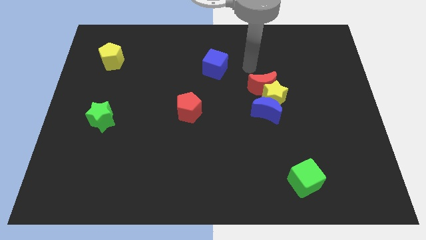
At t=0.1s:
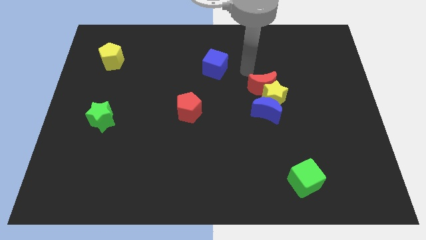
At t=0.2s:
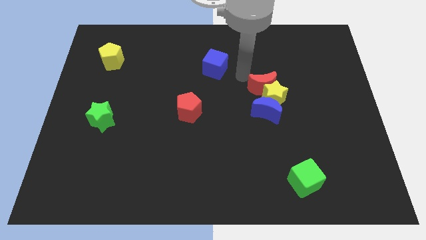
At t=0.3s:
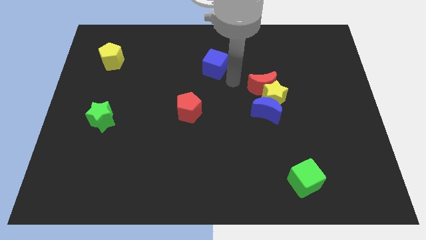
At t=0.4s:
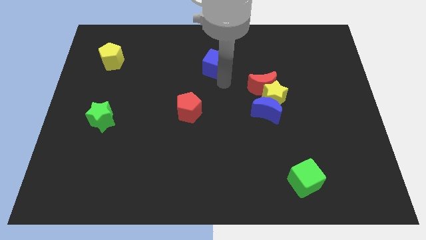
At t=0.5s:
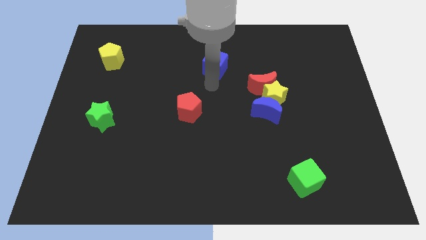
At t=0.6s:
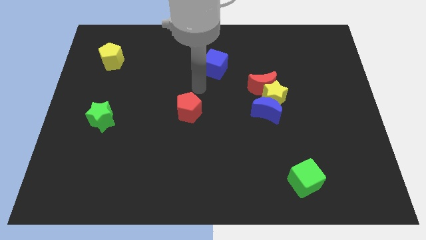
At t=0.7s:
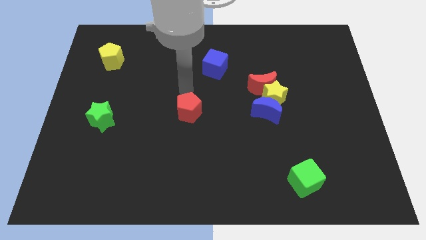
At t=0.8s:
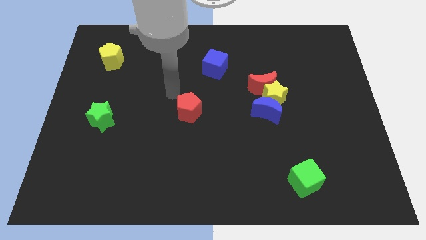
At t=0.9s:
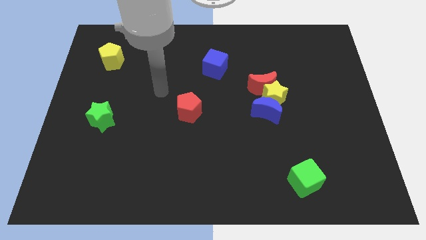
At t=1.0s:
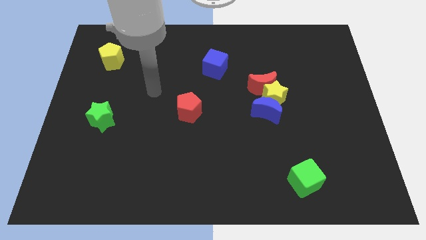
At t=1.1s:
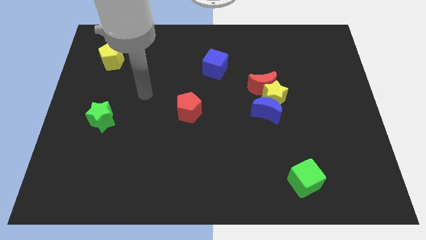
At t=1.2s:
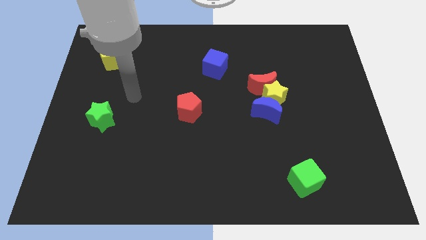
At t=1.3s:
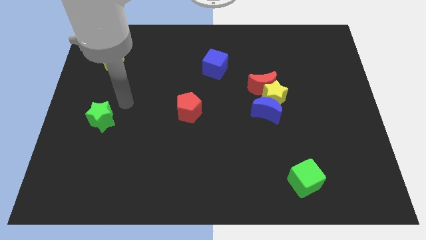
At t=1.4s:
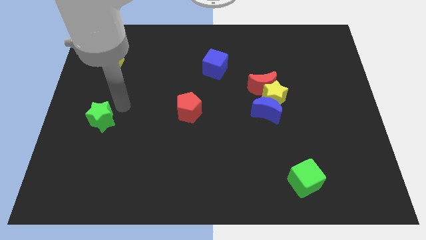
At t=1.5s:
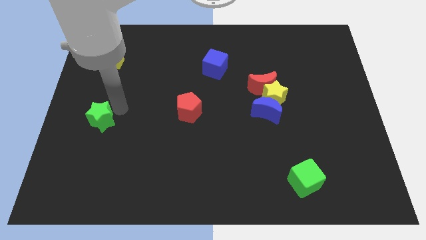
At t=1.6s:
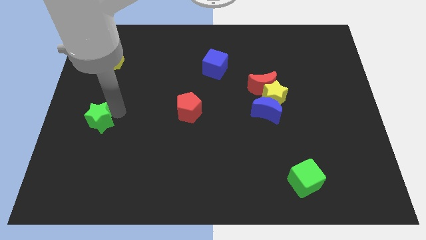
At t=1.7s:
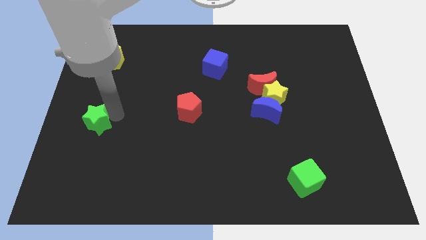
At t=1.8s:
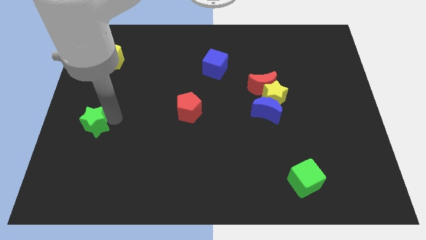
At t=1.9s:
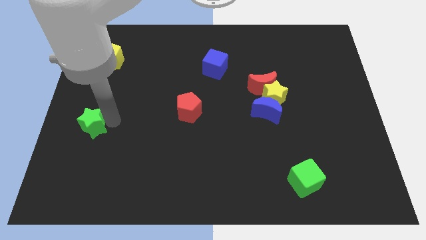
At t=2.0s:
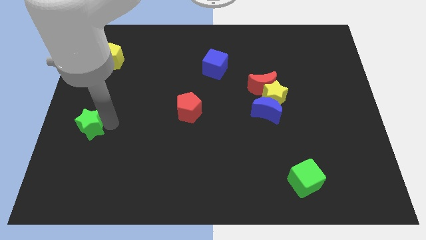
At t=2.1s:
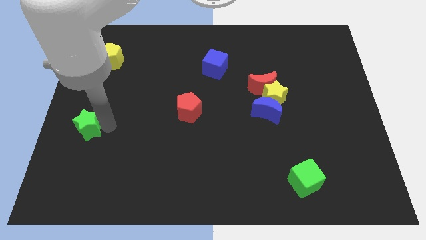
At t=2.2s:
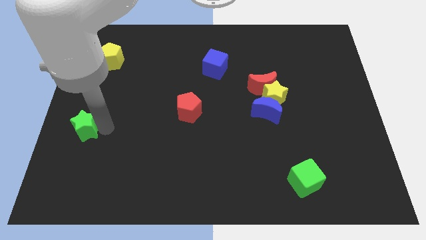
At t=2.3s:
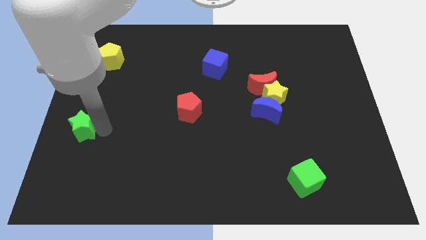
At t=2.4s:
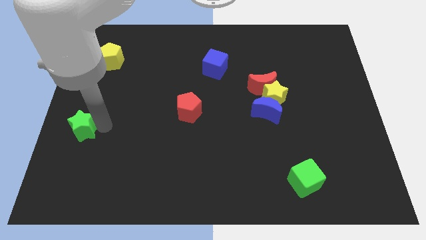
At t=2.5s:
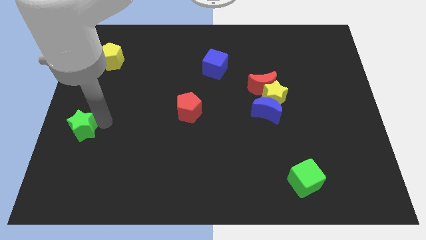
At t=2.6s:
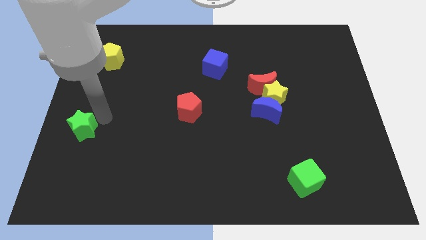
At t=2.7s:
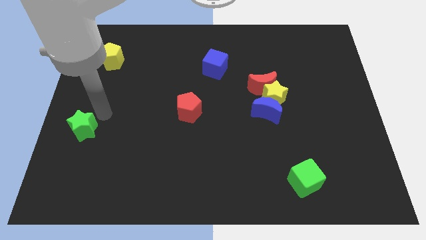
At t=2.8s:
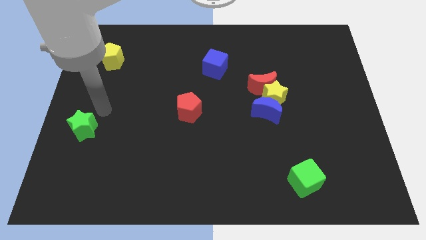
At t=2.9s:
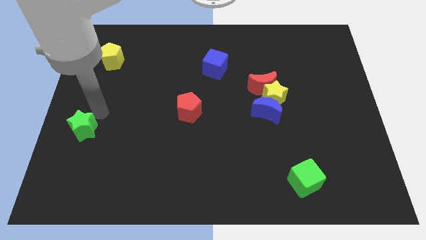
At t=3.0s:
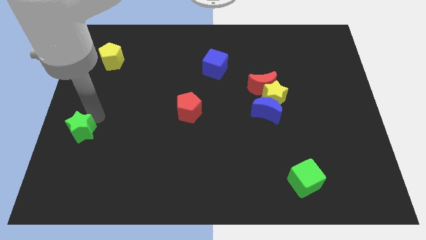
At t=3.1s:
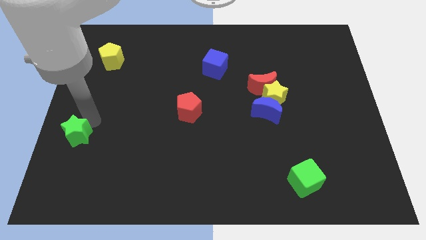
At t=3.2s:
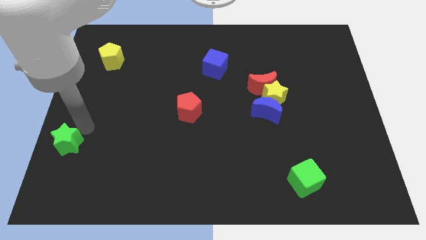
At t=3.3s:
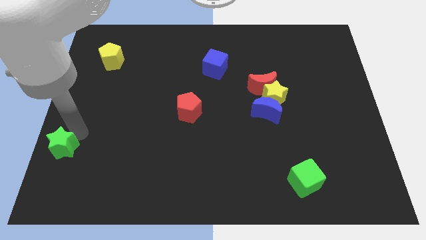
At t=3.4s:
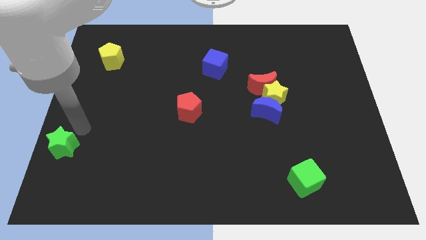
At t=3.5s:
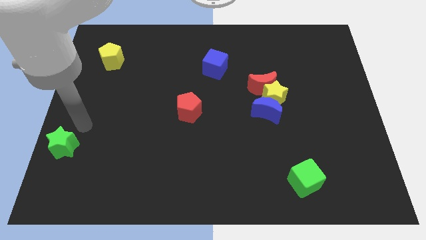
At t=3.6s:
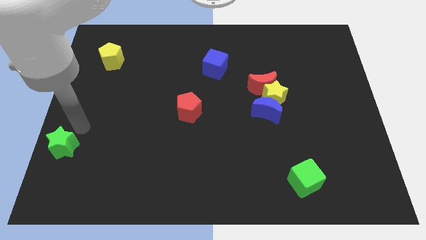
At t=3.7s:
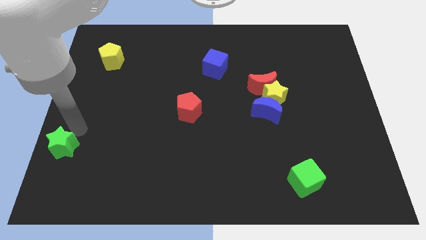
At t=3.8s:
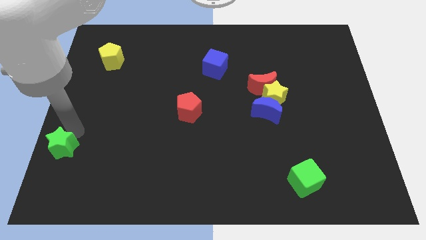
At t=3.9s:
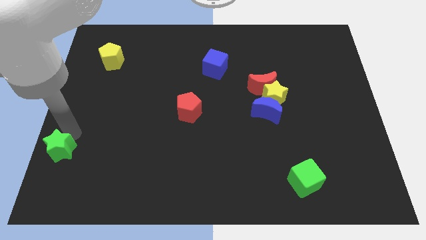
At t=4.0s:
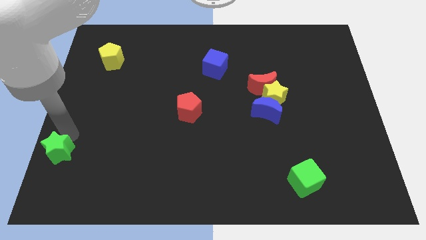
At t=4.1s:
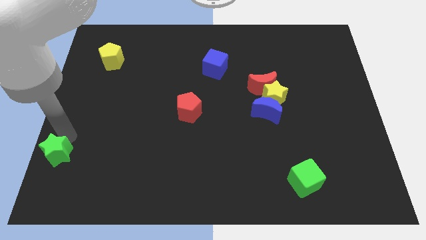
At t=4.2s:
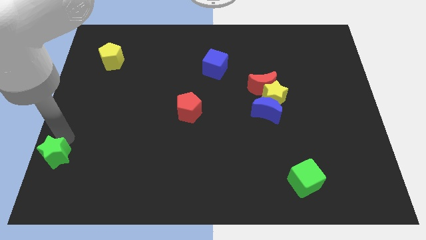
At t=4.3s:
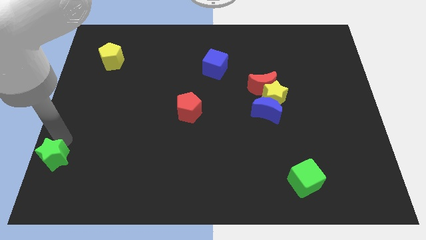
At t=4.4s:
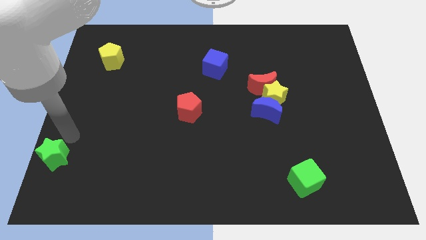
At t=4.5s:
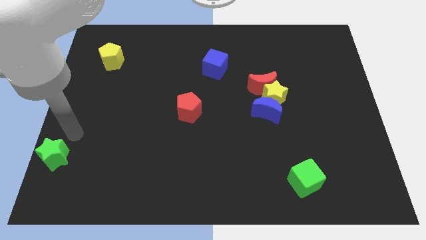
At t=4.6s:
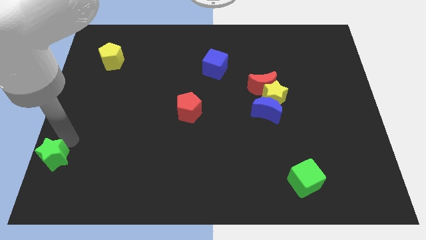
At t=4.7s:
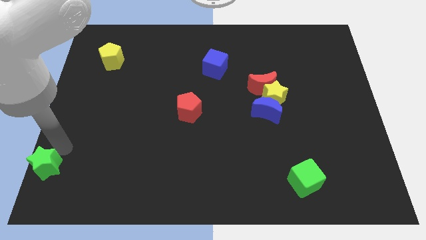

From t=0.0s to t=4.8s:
push the green star to the bottom left corner

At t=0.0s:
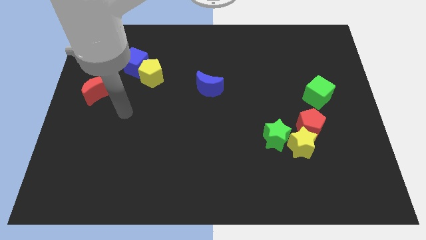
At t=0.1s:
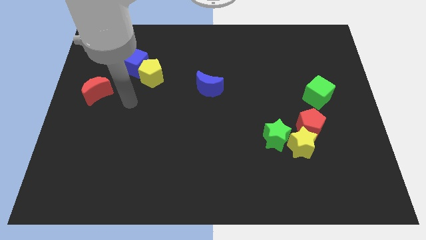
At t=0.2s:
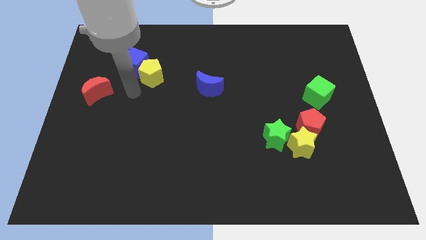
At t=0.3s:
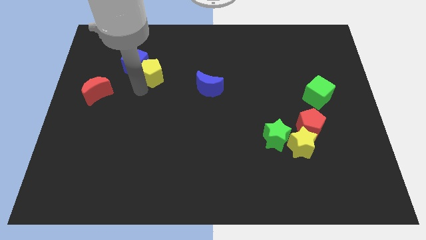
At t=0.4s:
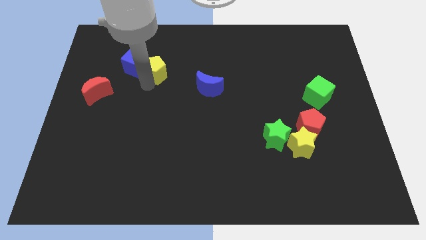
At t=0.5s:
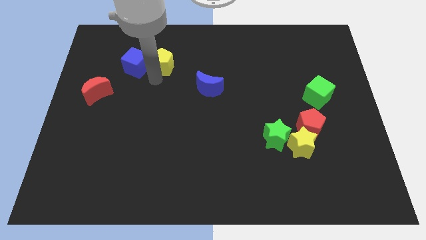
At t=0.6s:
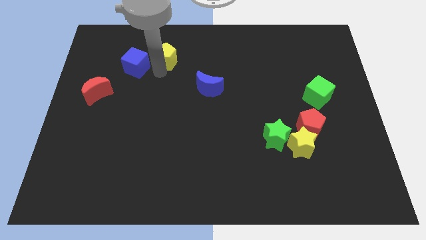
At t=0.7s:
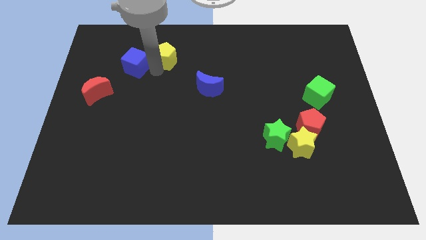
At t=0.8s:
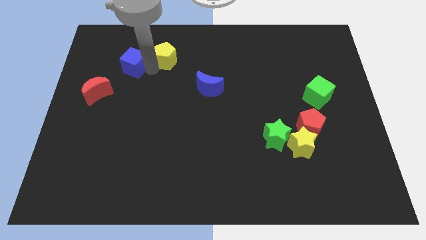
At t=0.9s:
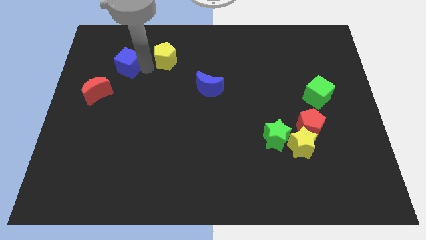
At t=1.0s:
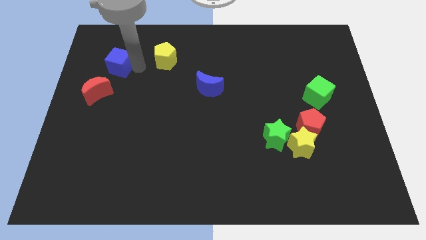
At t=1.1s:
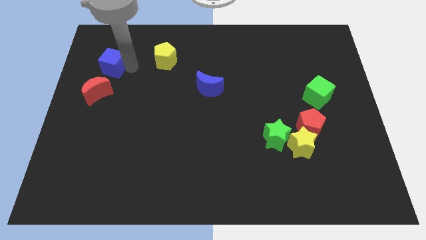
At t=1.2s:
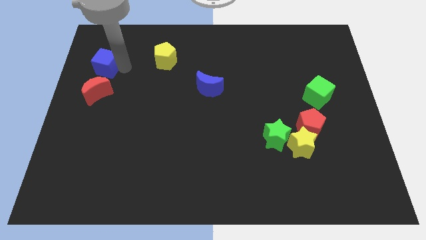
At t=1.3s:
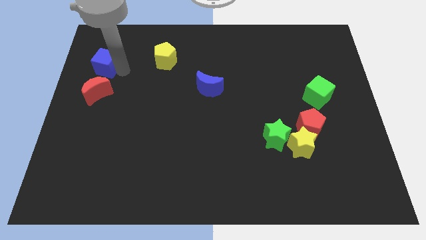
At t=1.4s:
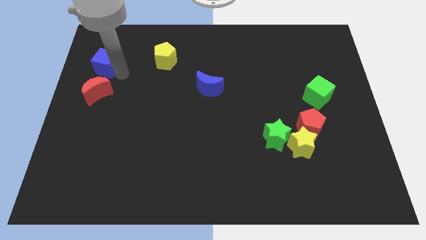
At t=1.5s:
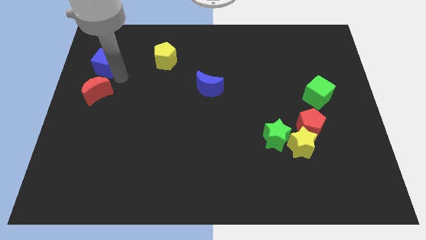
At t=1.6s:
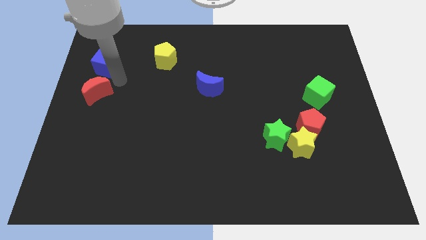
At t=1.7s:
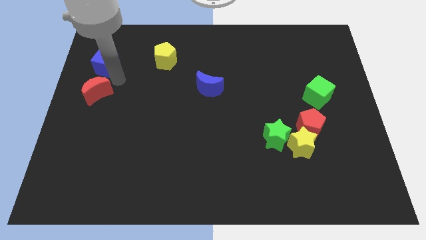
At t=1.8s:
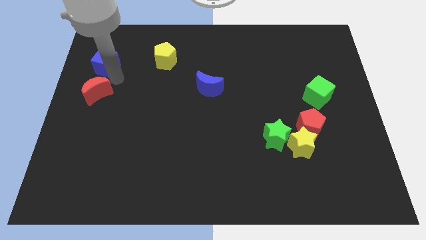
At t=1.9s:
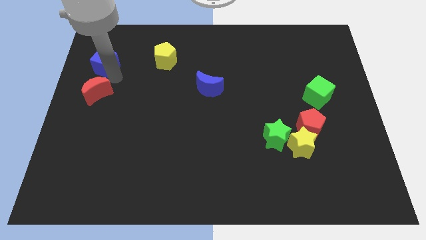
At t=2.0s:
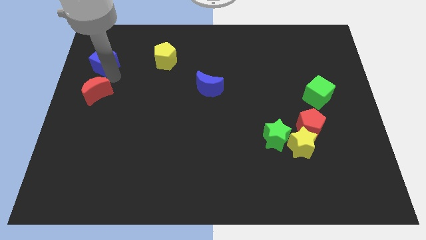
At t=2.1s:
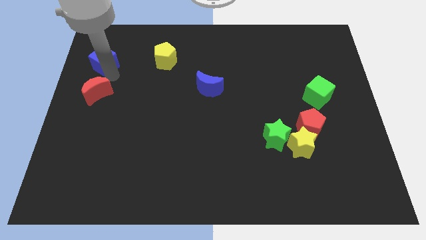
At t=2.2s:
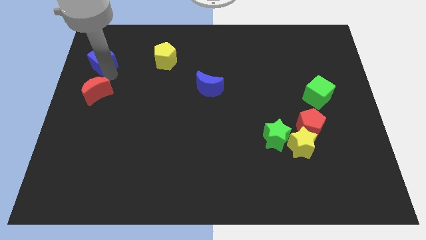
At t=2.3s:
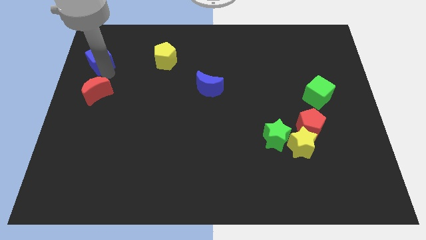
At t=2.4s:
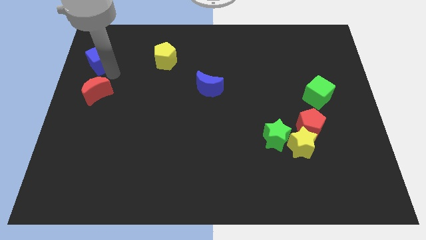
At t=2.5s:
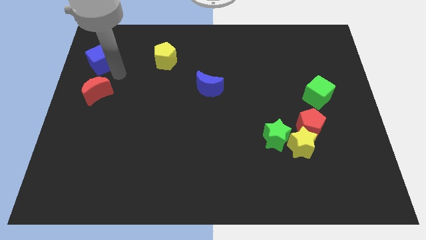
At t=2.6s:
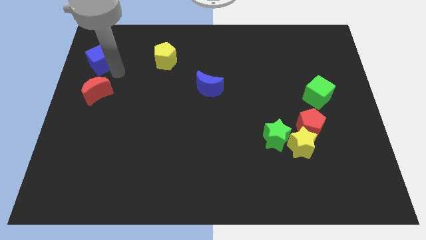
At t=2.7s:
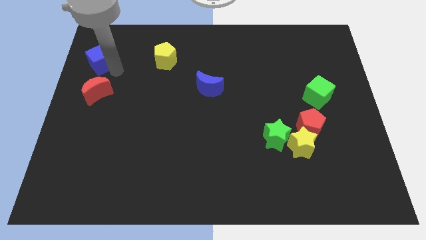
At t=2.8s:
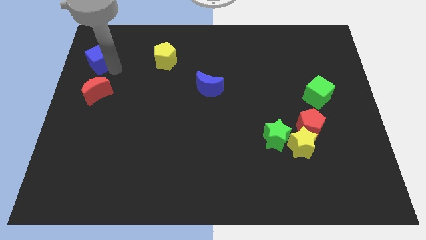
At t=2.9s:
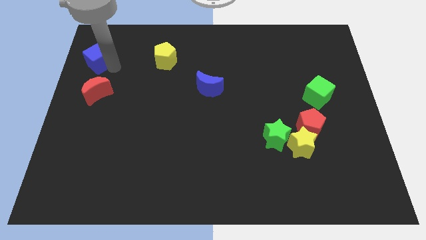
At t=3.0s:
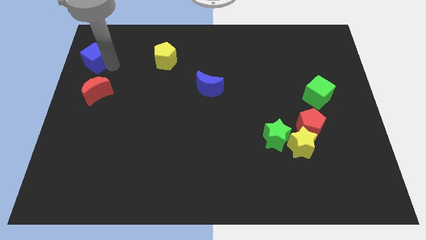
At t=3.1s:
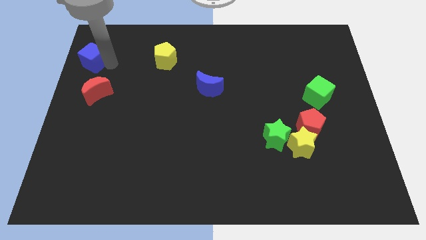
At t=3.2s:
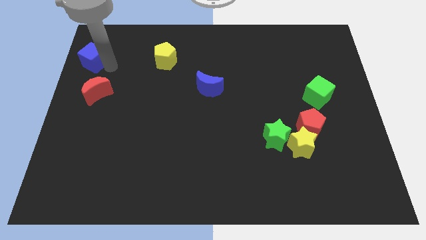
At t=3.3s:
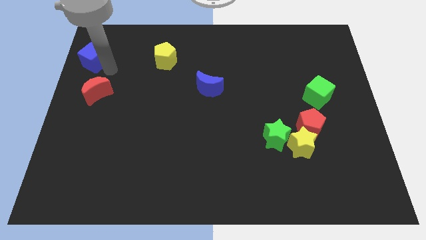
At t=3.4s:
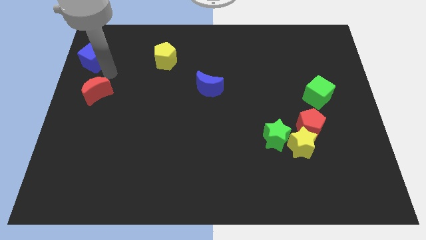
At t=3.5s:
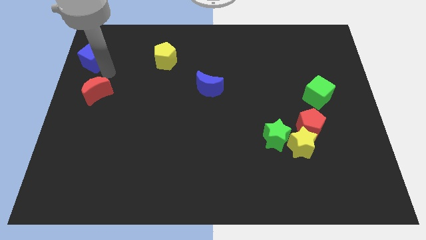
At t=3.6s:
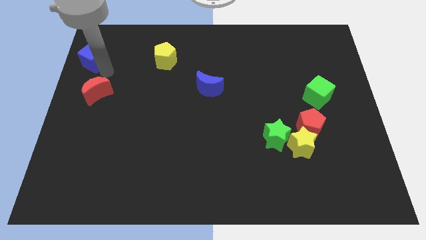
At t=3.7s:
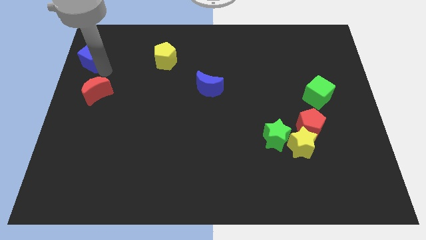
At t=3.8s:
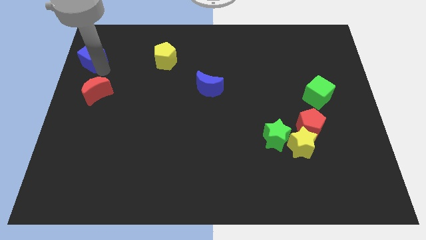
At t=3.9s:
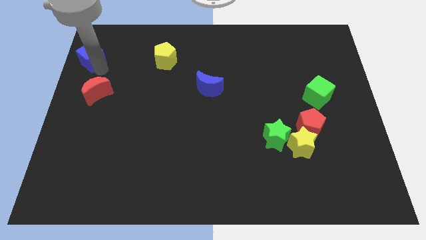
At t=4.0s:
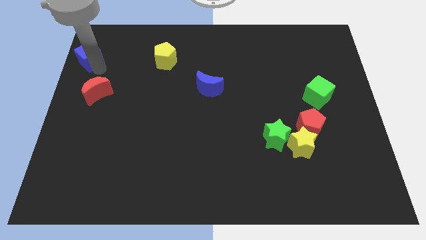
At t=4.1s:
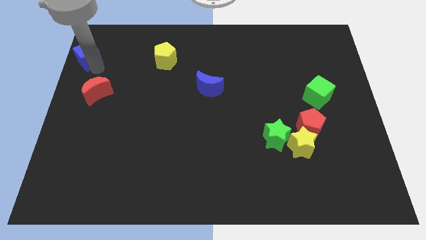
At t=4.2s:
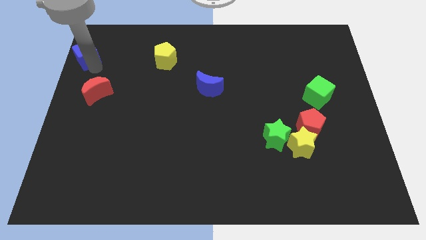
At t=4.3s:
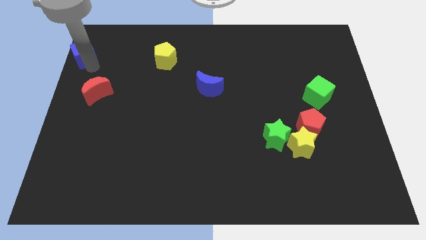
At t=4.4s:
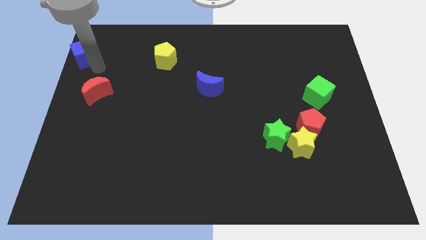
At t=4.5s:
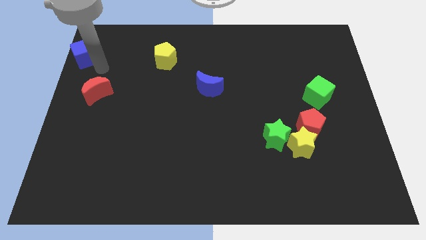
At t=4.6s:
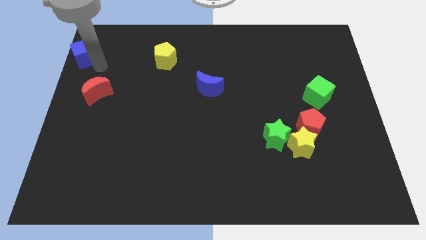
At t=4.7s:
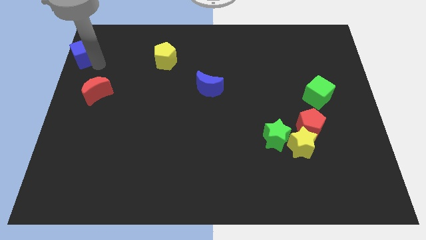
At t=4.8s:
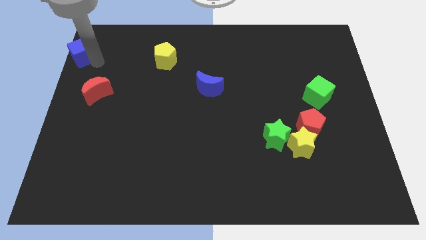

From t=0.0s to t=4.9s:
slide the blue cube to the top left corner
